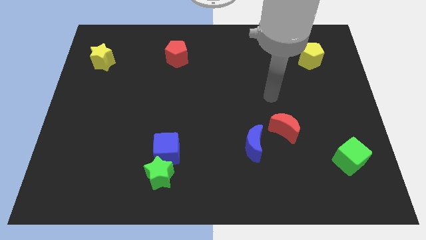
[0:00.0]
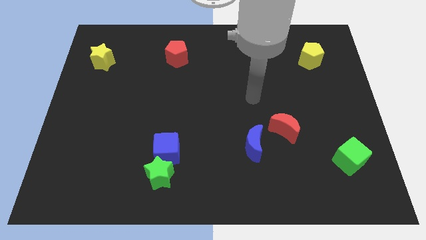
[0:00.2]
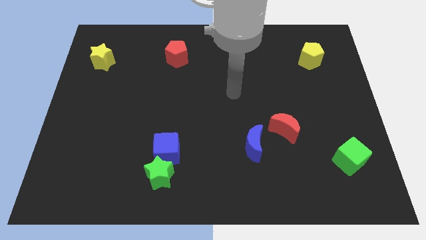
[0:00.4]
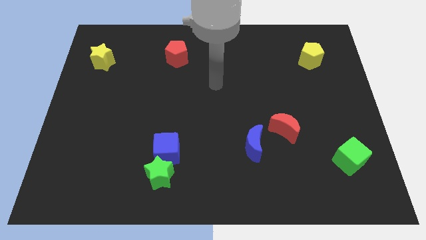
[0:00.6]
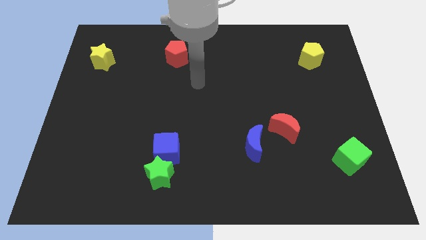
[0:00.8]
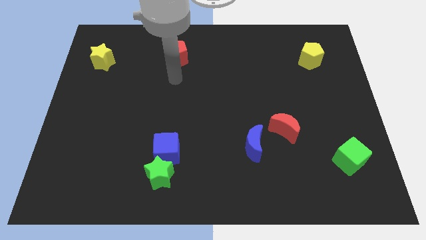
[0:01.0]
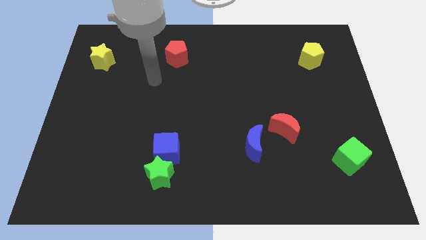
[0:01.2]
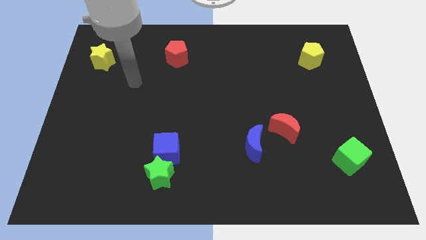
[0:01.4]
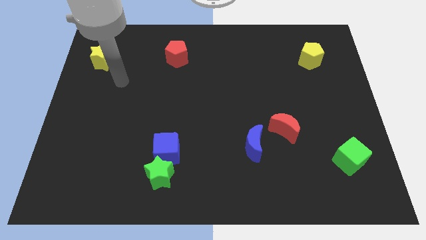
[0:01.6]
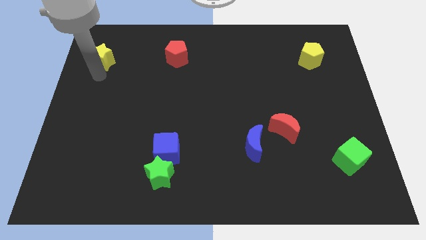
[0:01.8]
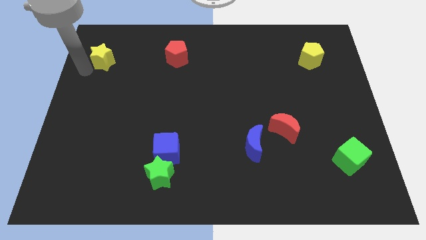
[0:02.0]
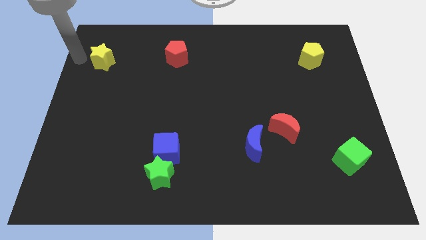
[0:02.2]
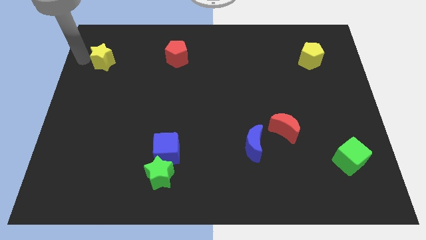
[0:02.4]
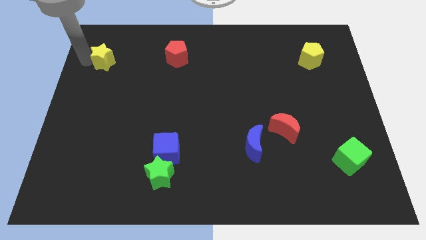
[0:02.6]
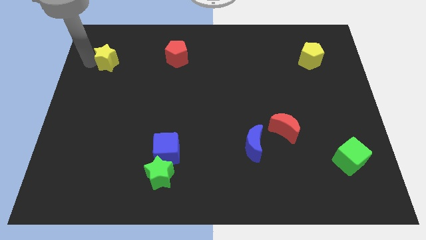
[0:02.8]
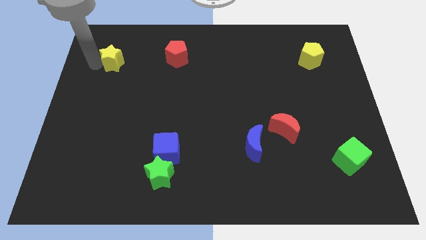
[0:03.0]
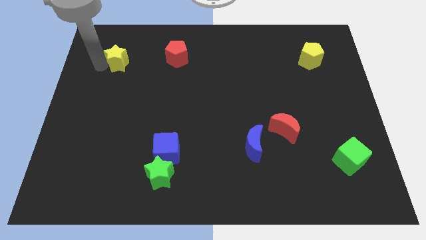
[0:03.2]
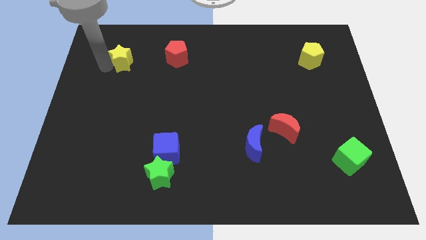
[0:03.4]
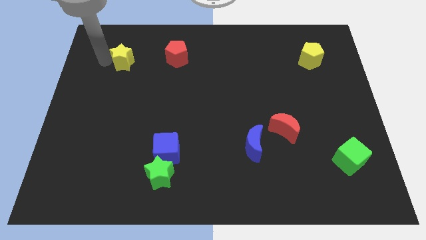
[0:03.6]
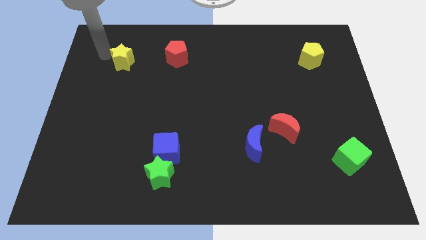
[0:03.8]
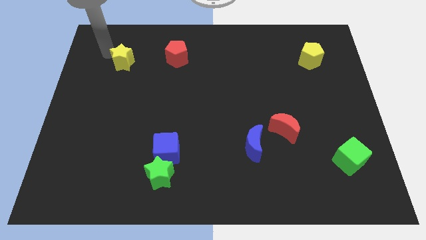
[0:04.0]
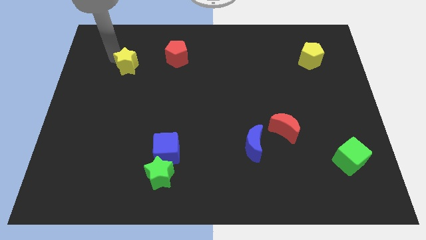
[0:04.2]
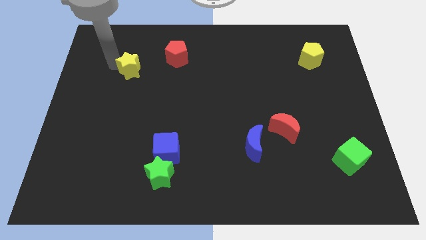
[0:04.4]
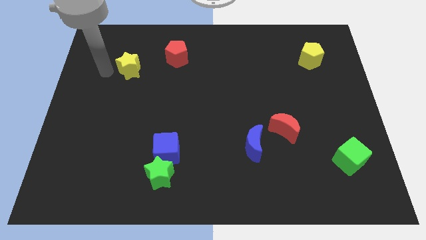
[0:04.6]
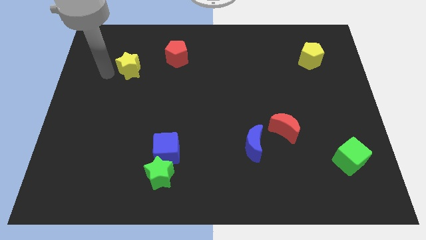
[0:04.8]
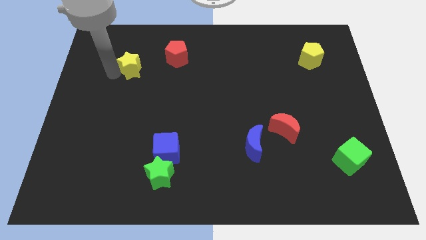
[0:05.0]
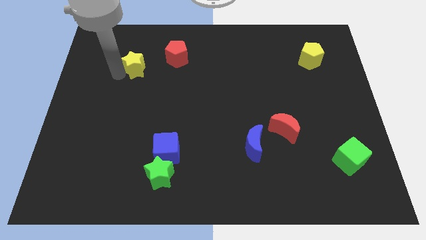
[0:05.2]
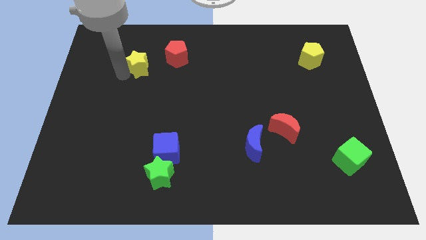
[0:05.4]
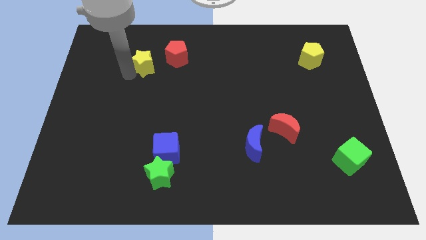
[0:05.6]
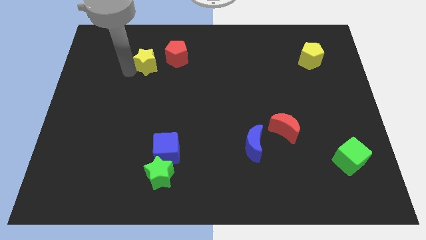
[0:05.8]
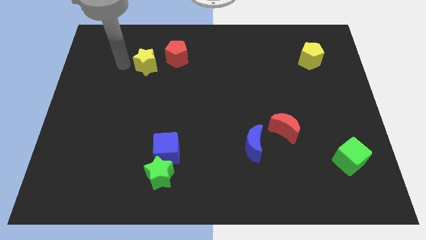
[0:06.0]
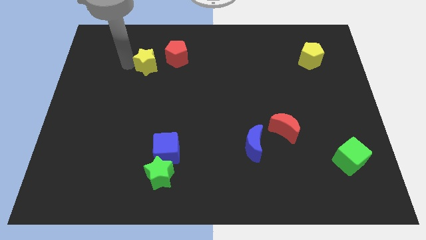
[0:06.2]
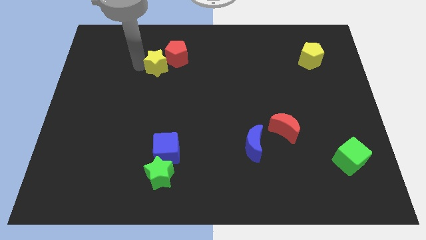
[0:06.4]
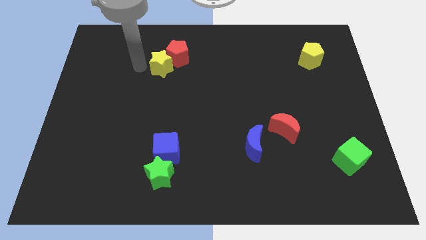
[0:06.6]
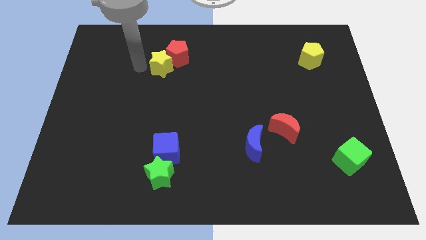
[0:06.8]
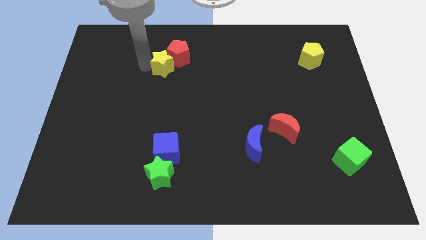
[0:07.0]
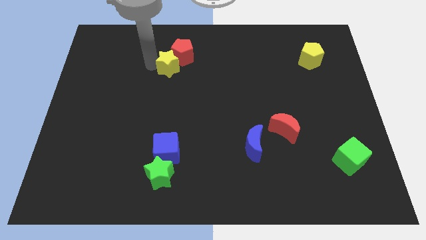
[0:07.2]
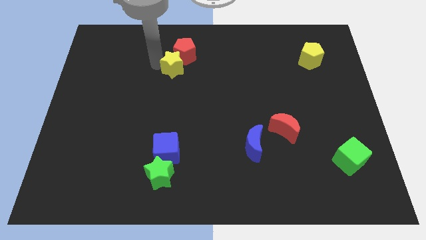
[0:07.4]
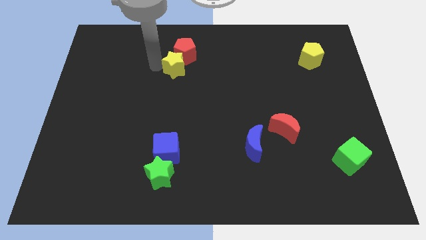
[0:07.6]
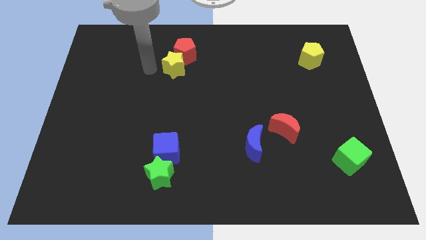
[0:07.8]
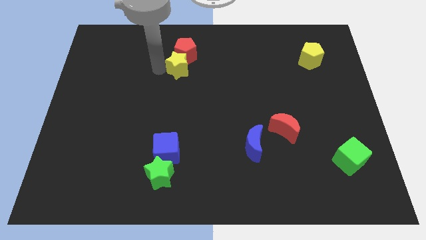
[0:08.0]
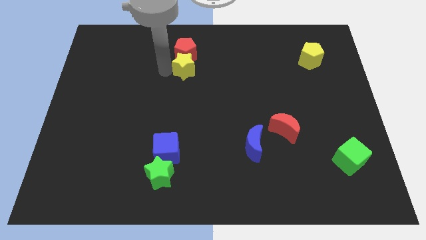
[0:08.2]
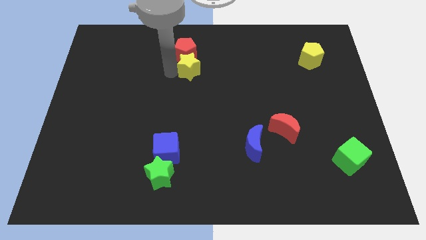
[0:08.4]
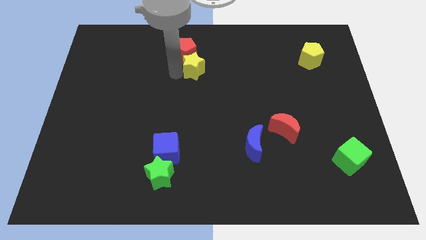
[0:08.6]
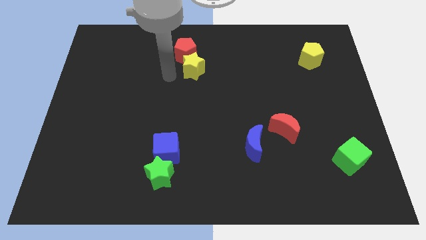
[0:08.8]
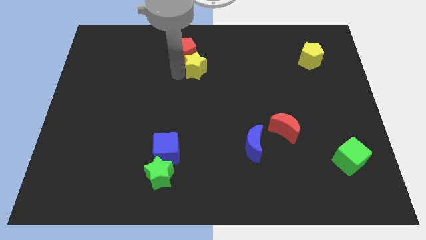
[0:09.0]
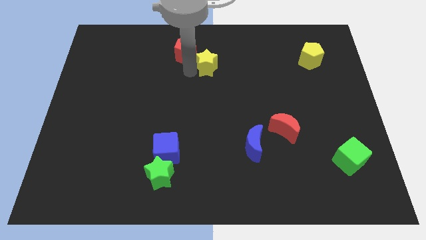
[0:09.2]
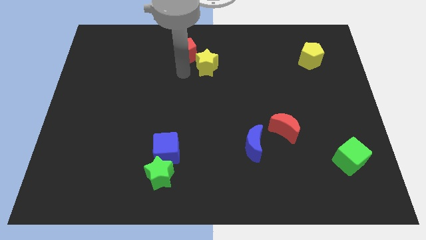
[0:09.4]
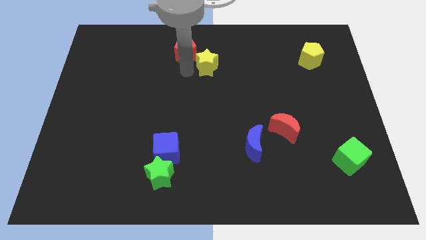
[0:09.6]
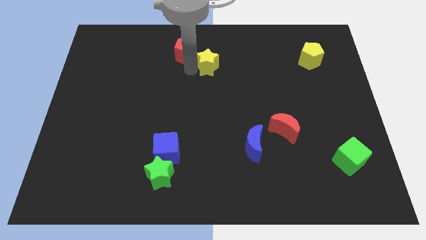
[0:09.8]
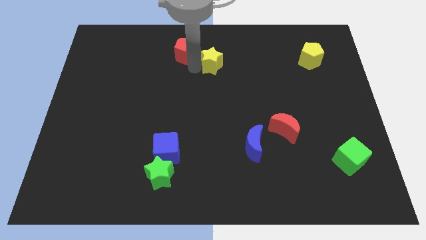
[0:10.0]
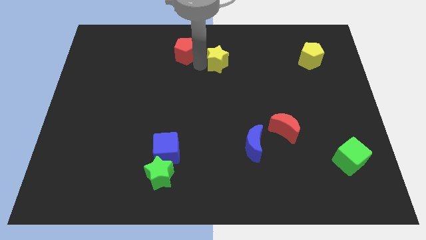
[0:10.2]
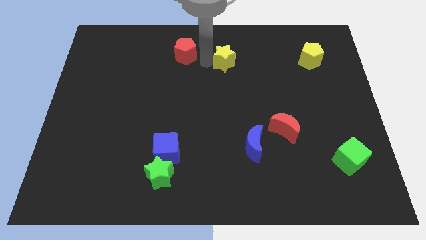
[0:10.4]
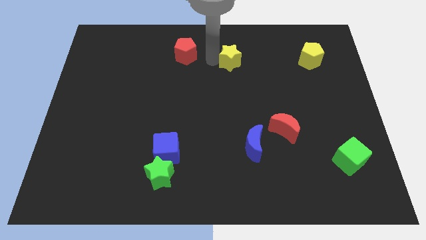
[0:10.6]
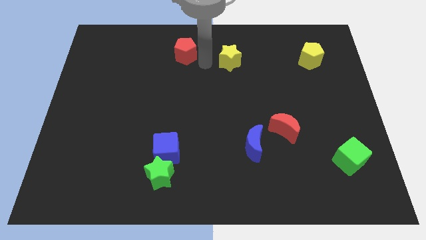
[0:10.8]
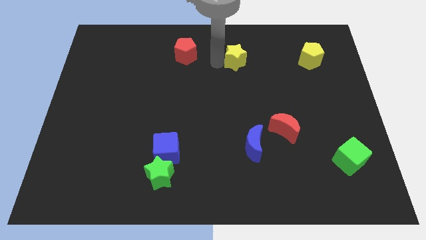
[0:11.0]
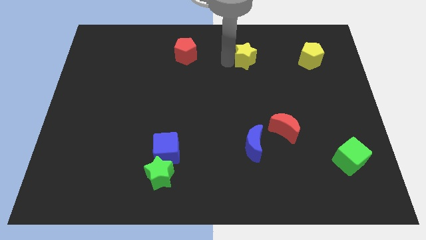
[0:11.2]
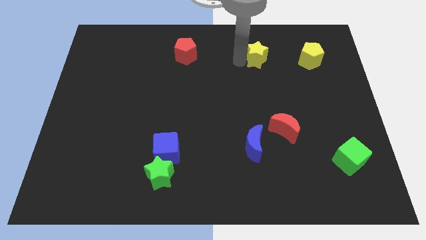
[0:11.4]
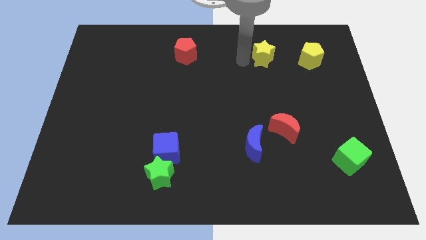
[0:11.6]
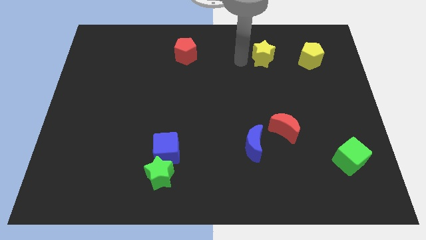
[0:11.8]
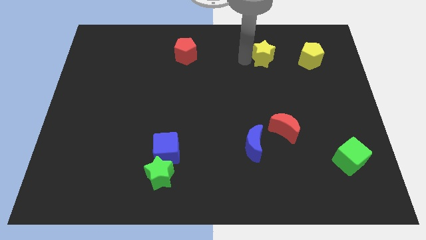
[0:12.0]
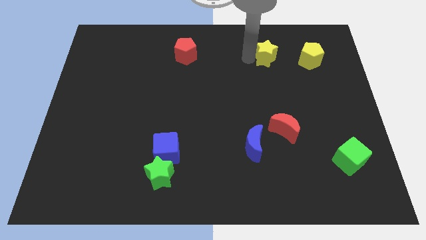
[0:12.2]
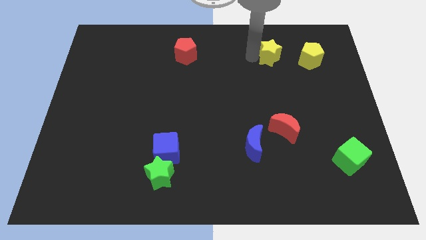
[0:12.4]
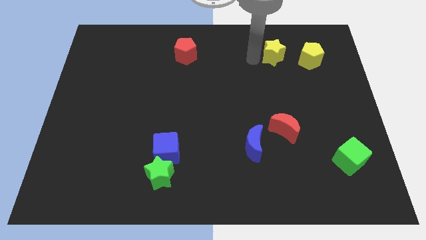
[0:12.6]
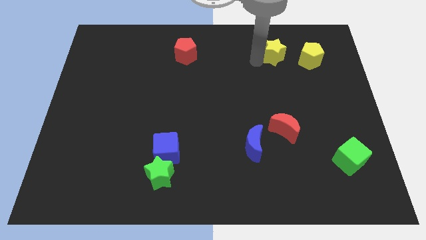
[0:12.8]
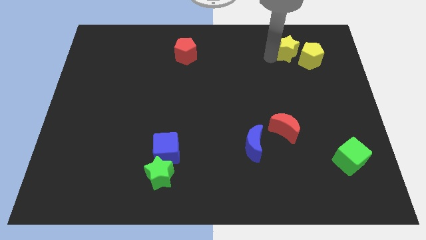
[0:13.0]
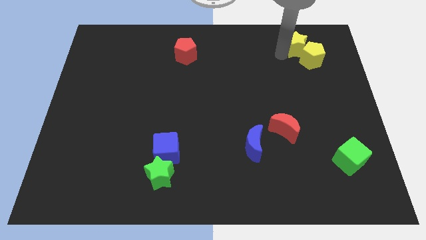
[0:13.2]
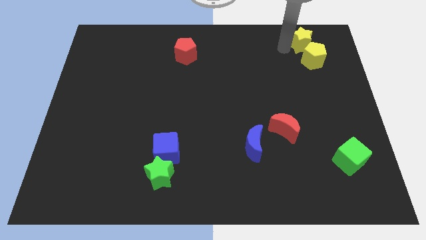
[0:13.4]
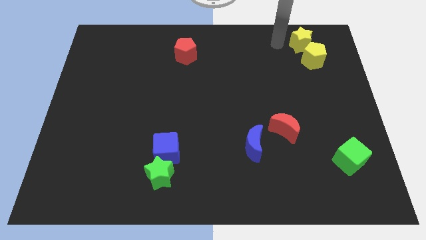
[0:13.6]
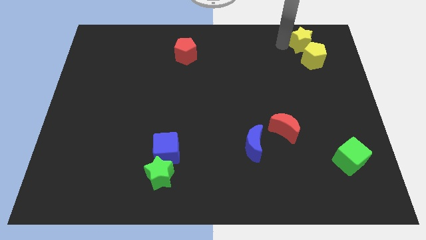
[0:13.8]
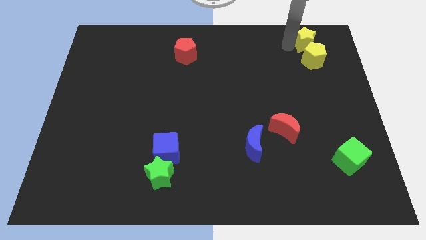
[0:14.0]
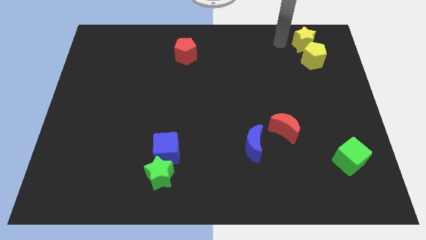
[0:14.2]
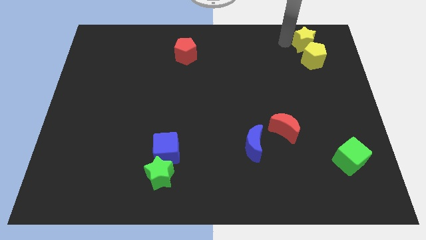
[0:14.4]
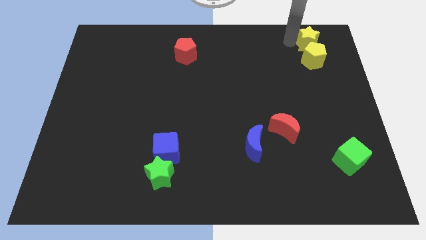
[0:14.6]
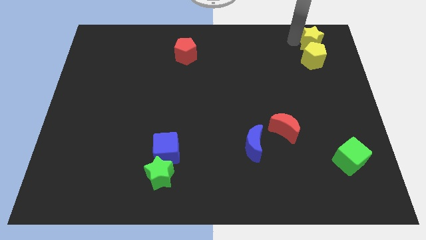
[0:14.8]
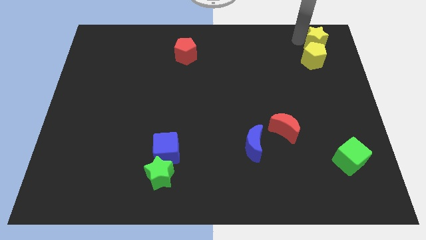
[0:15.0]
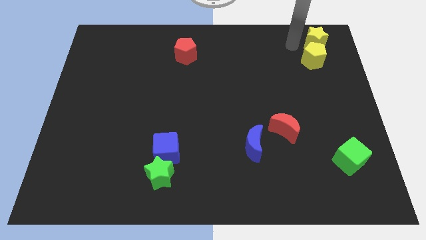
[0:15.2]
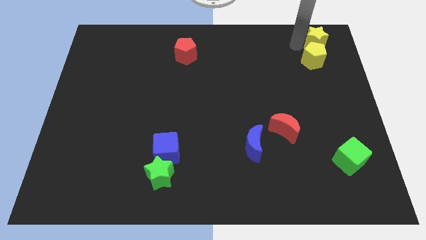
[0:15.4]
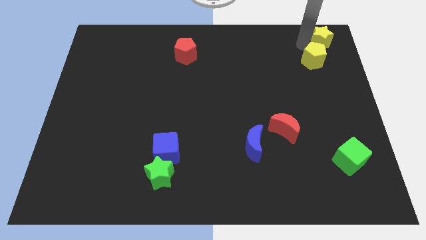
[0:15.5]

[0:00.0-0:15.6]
move the yellow star to the top right corner
